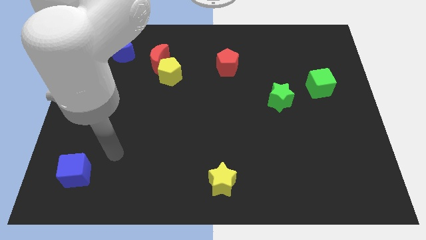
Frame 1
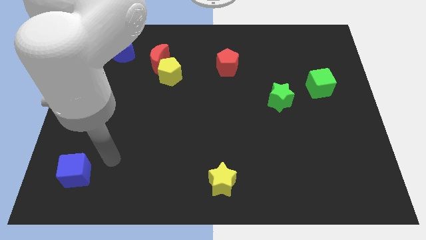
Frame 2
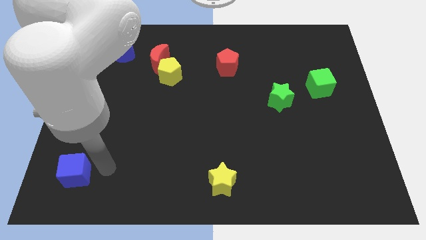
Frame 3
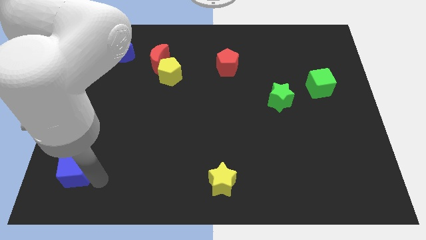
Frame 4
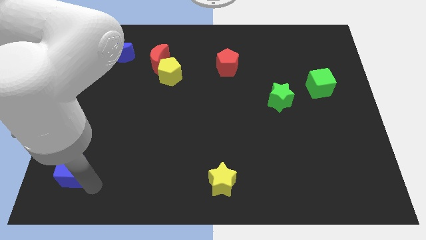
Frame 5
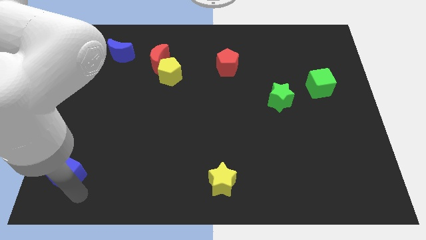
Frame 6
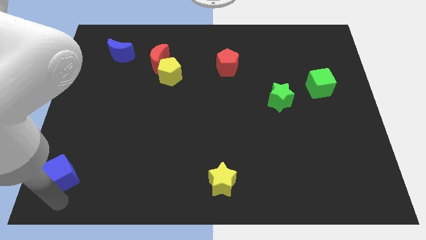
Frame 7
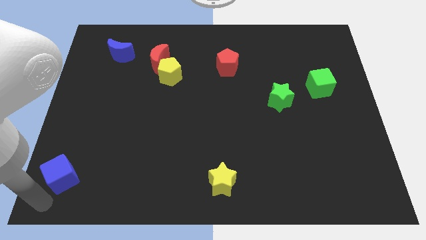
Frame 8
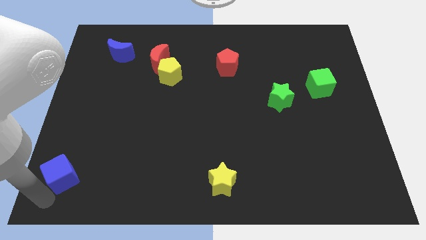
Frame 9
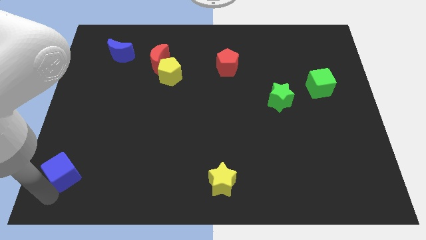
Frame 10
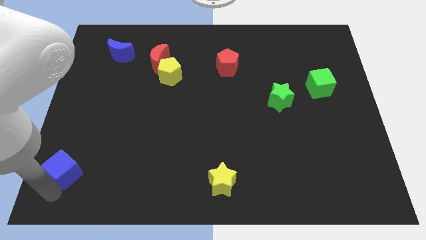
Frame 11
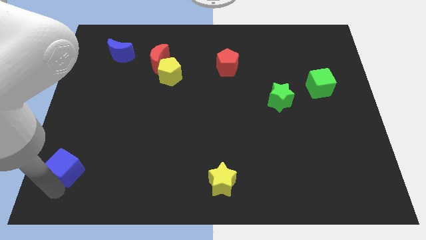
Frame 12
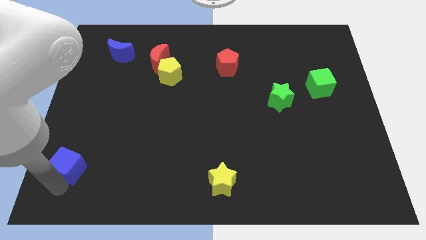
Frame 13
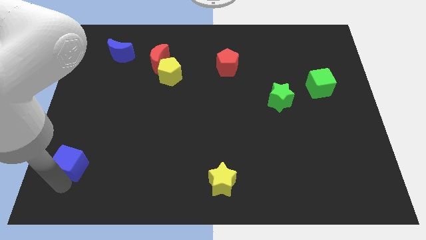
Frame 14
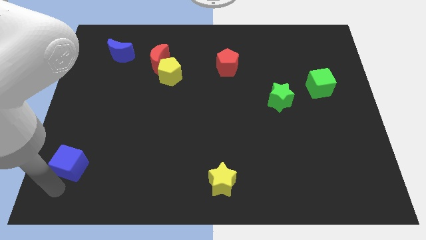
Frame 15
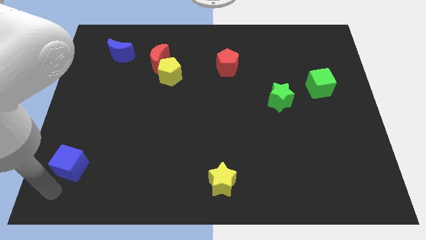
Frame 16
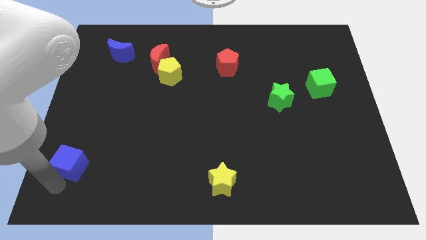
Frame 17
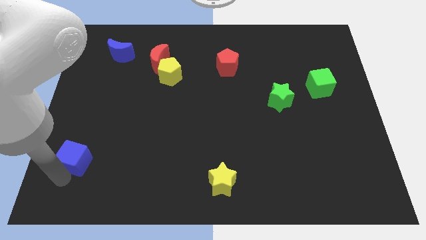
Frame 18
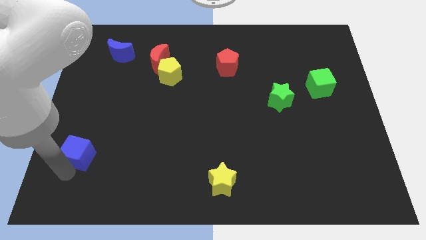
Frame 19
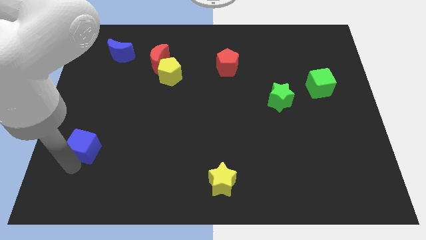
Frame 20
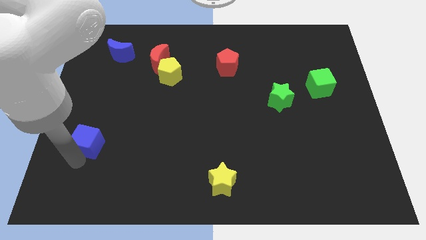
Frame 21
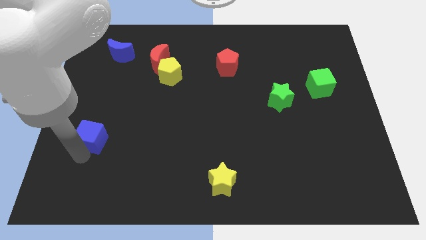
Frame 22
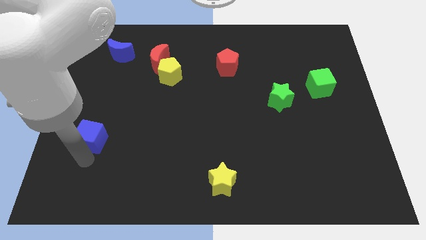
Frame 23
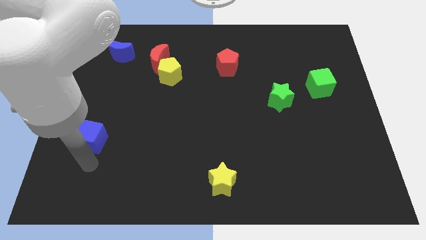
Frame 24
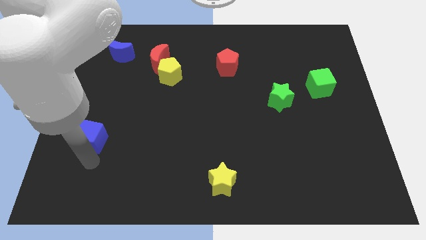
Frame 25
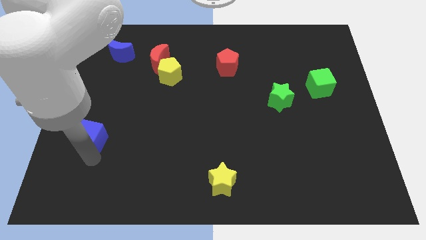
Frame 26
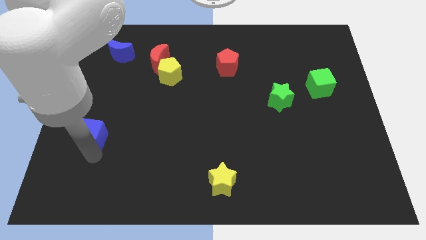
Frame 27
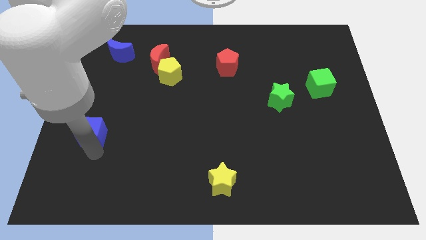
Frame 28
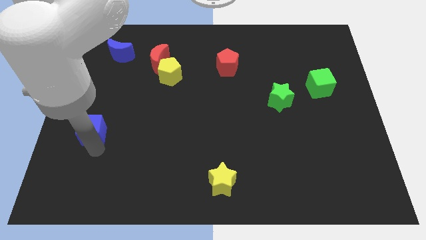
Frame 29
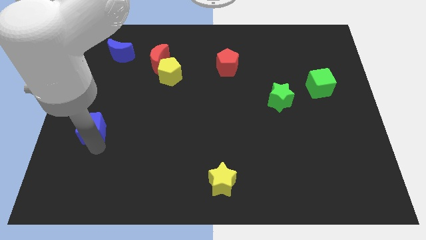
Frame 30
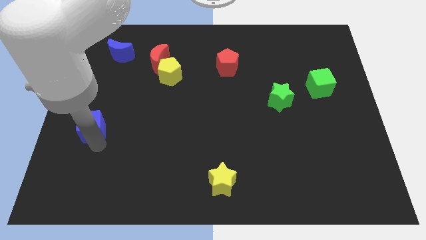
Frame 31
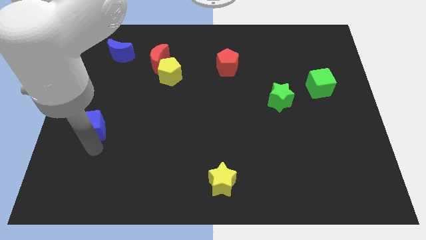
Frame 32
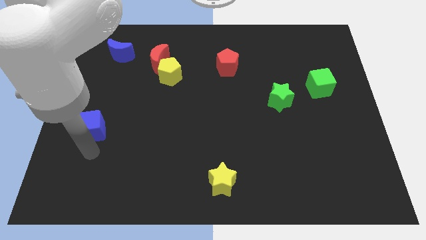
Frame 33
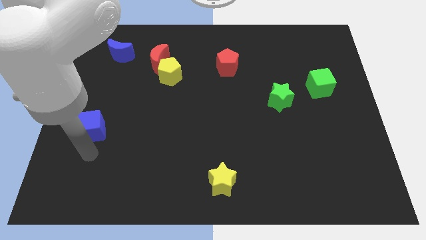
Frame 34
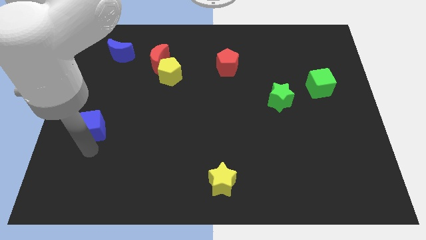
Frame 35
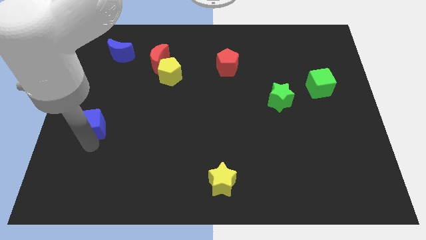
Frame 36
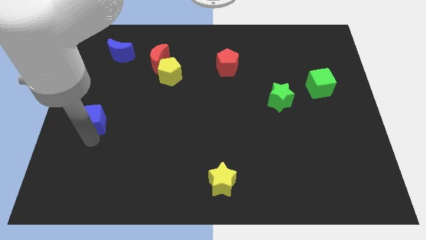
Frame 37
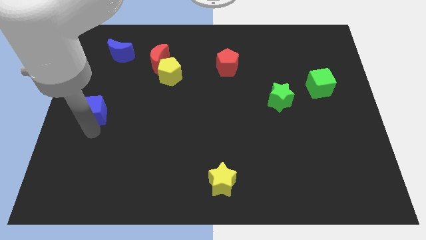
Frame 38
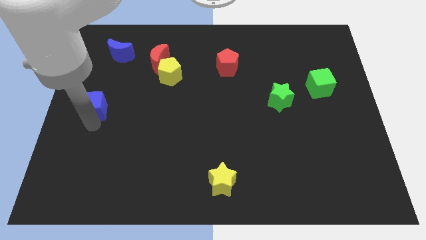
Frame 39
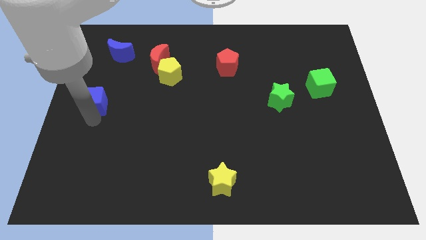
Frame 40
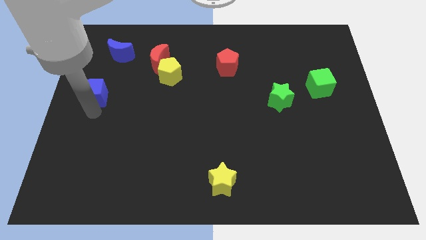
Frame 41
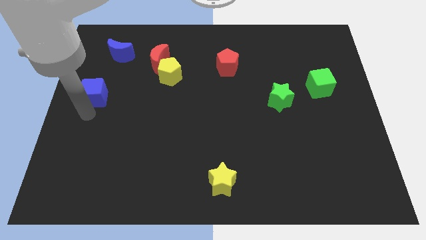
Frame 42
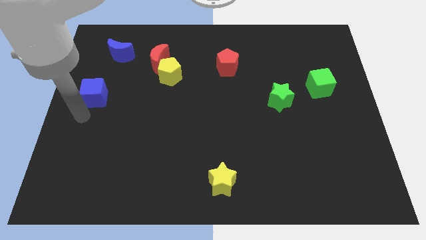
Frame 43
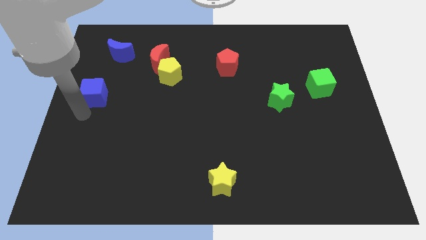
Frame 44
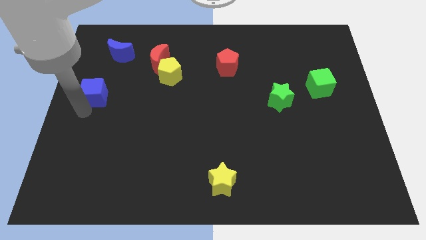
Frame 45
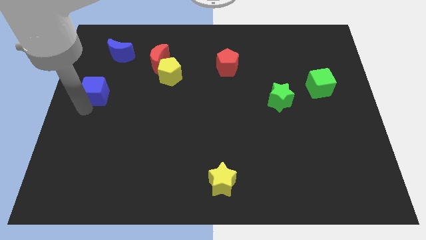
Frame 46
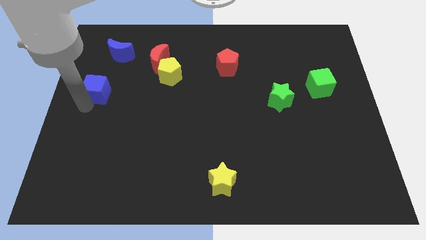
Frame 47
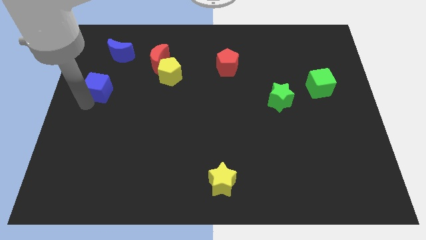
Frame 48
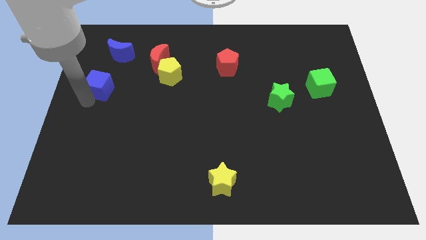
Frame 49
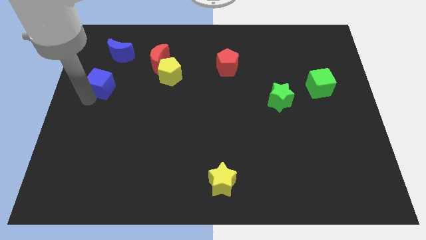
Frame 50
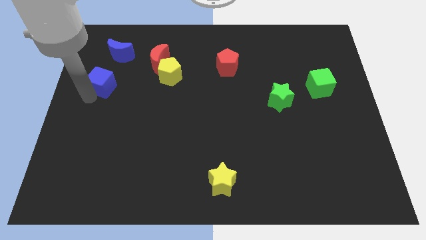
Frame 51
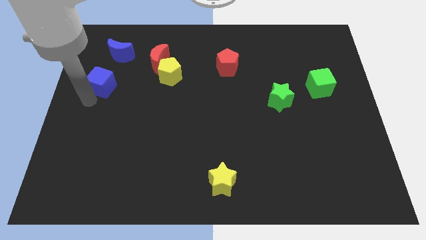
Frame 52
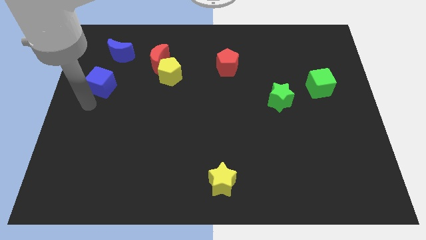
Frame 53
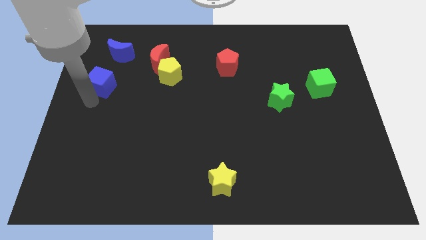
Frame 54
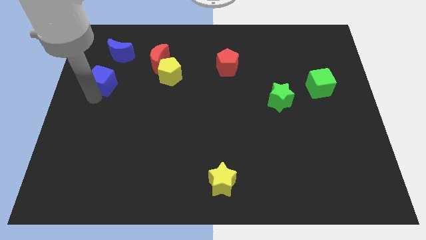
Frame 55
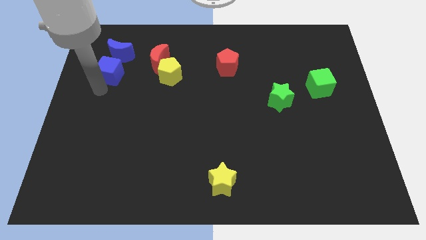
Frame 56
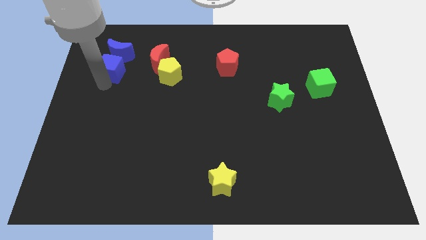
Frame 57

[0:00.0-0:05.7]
put the blue cube close to the blue moon
